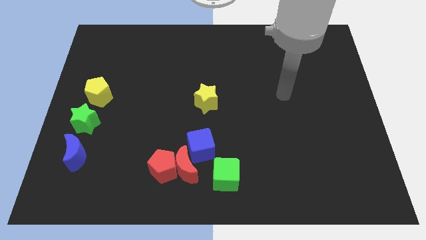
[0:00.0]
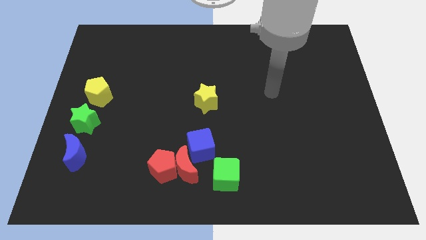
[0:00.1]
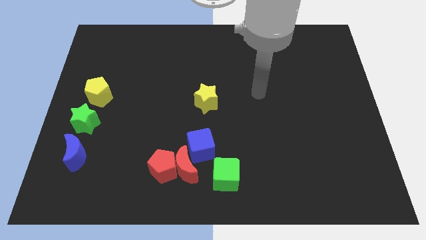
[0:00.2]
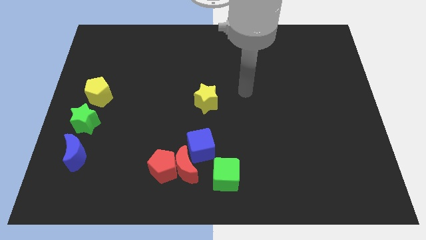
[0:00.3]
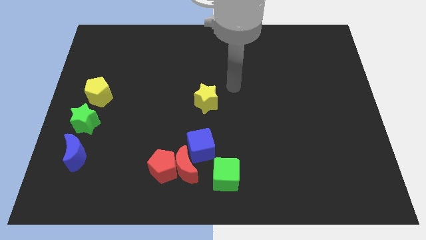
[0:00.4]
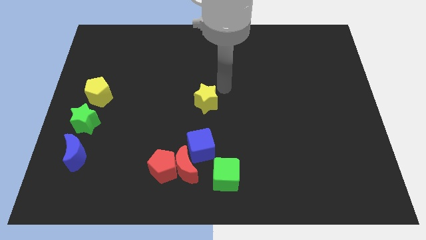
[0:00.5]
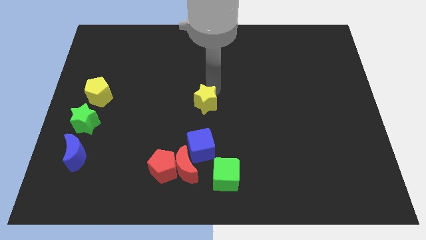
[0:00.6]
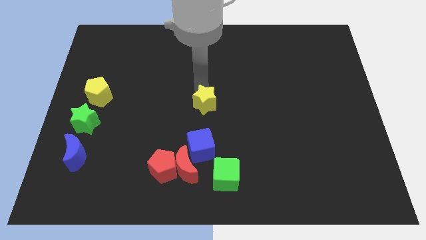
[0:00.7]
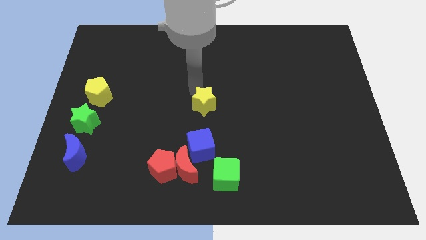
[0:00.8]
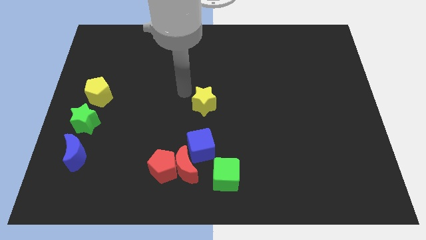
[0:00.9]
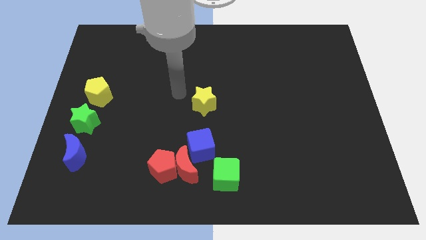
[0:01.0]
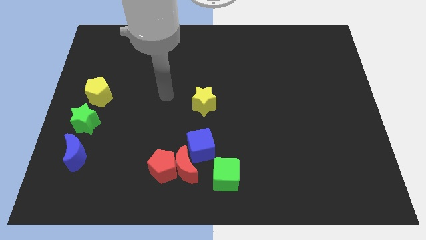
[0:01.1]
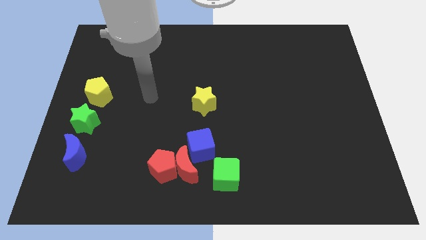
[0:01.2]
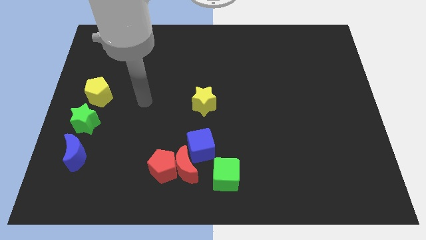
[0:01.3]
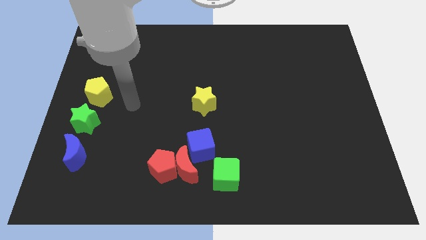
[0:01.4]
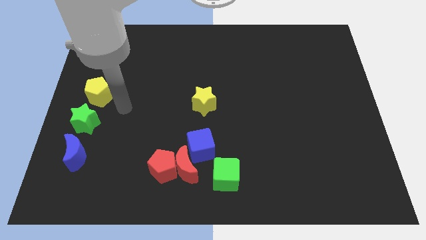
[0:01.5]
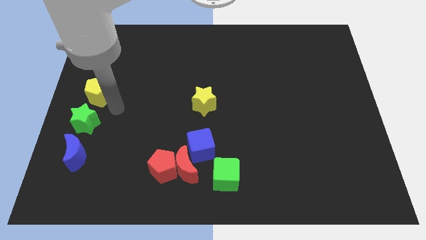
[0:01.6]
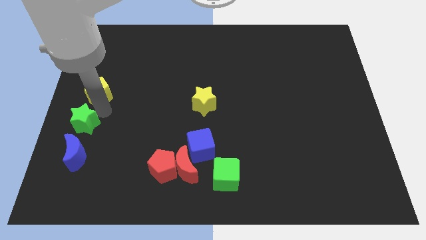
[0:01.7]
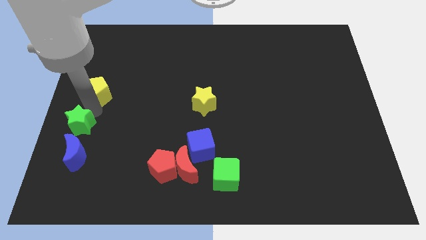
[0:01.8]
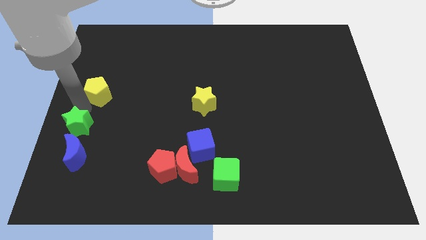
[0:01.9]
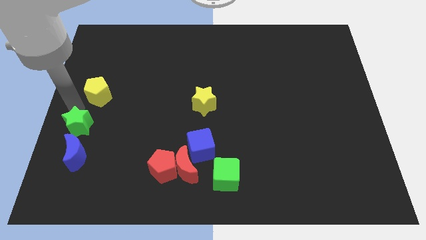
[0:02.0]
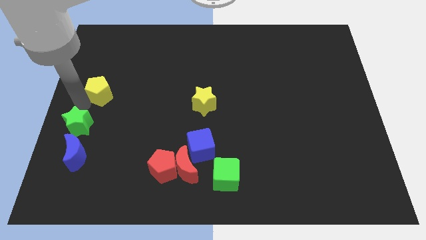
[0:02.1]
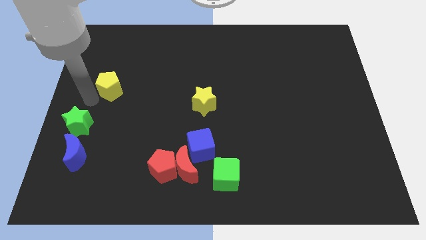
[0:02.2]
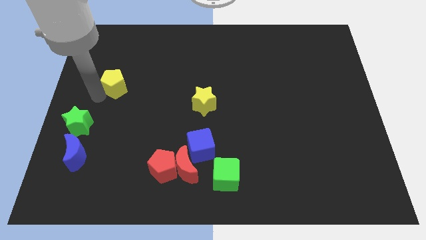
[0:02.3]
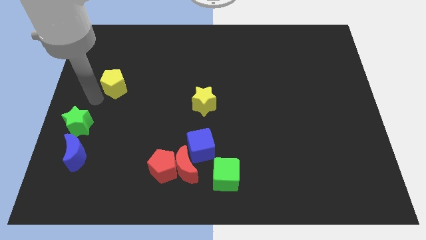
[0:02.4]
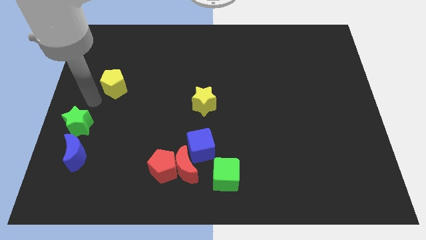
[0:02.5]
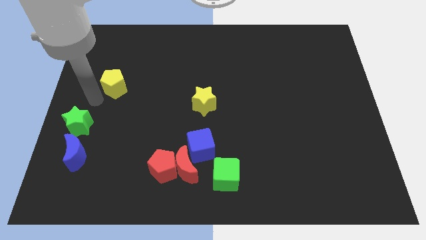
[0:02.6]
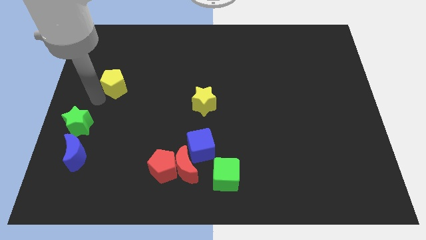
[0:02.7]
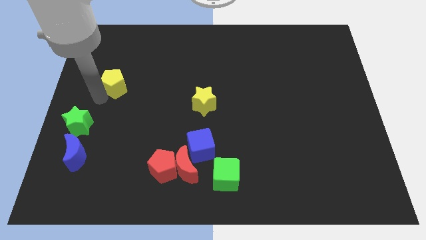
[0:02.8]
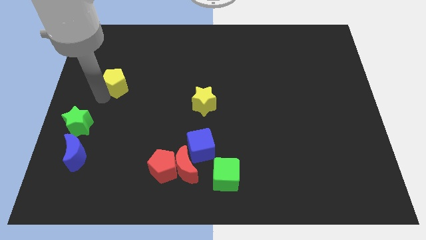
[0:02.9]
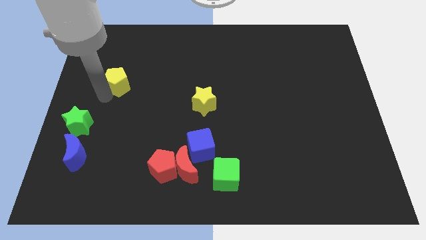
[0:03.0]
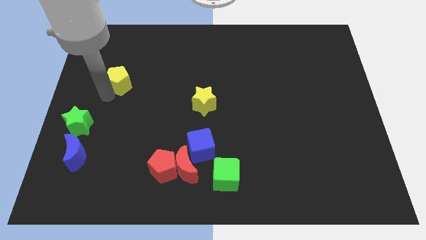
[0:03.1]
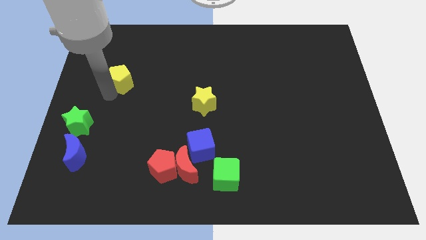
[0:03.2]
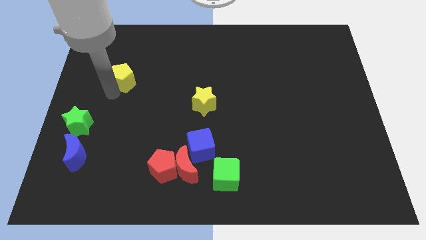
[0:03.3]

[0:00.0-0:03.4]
move the yellow pentagon a bit up and right

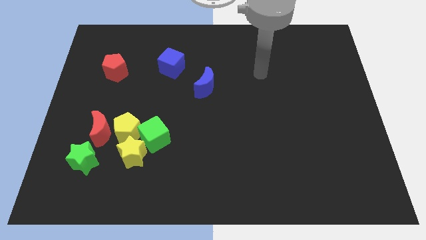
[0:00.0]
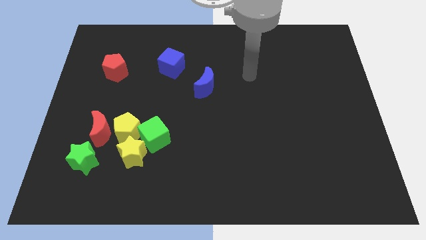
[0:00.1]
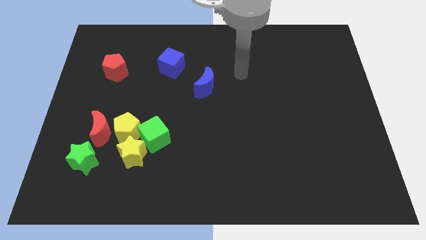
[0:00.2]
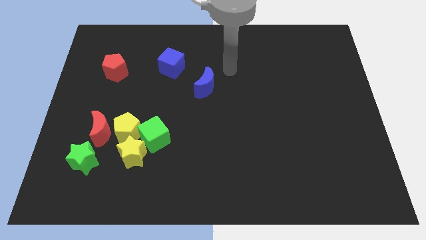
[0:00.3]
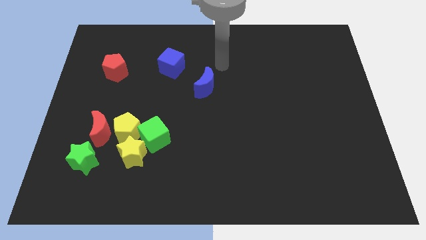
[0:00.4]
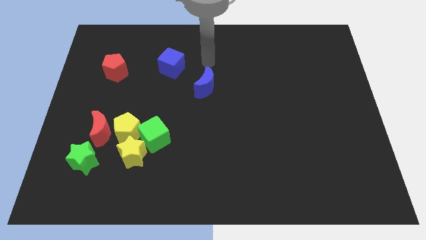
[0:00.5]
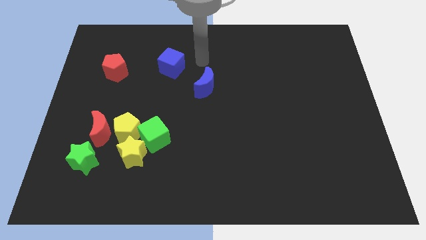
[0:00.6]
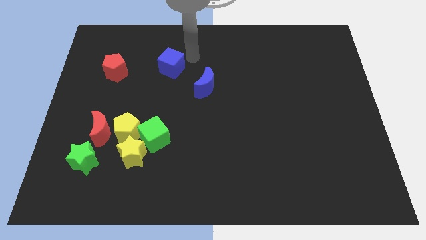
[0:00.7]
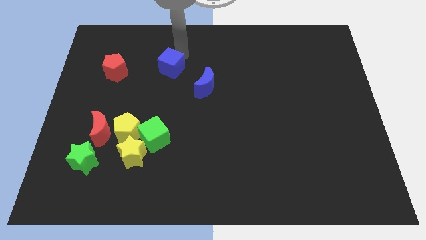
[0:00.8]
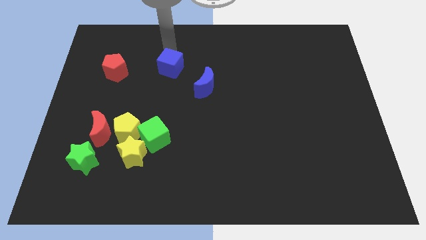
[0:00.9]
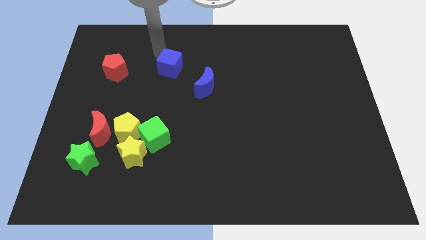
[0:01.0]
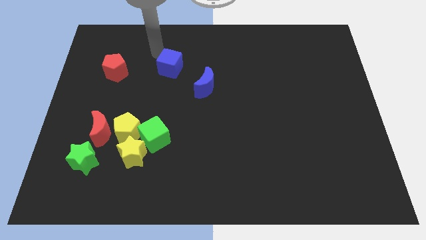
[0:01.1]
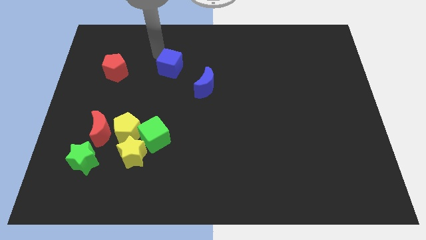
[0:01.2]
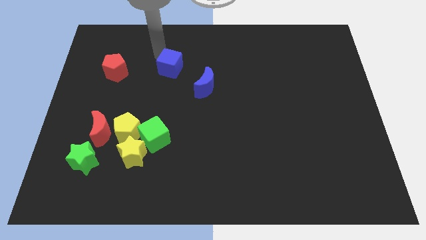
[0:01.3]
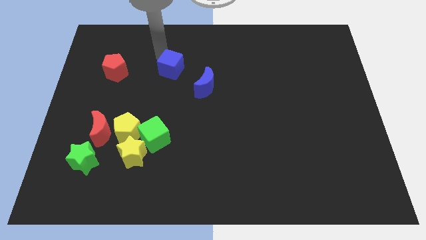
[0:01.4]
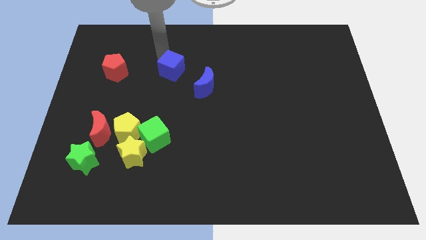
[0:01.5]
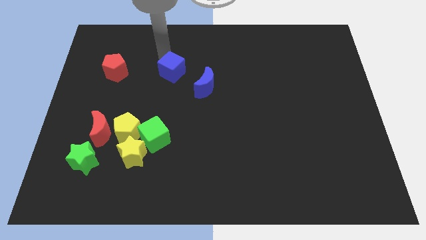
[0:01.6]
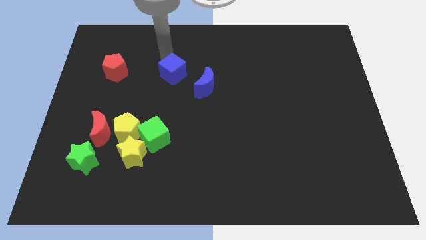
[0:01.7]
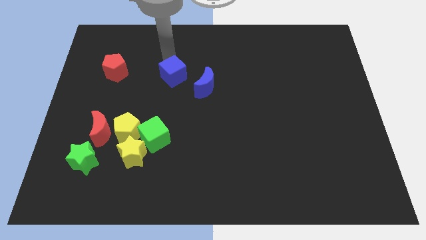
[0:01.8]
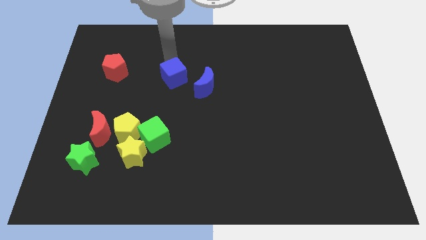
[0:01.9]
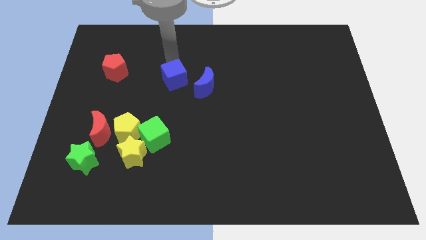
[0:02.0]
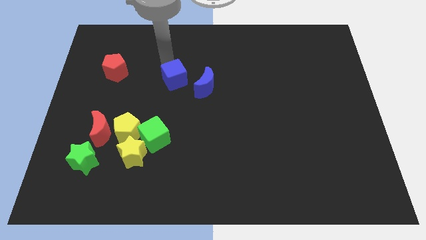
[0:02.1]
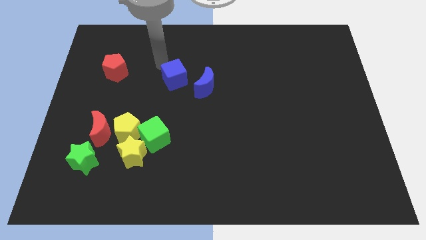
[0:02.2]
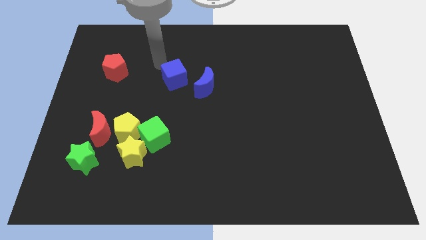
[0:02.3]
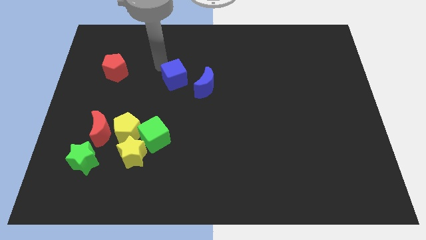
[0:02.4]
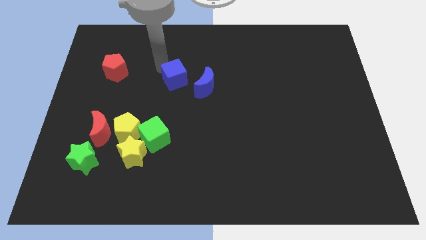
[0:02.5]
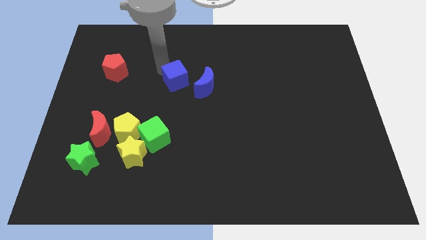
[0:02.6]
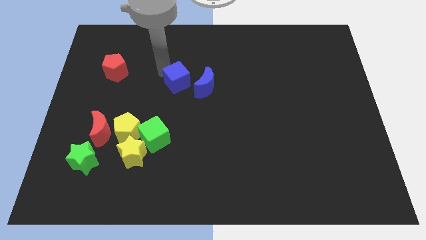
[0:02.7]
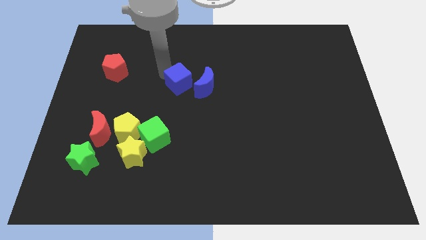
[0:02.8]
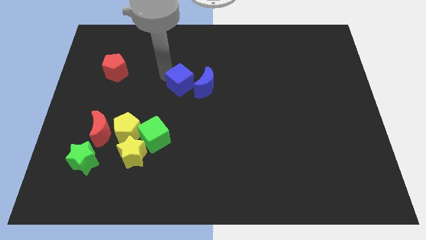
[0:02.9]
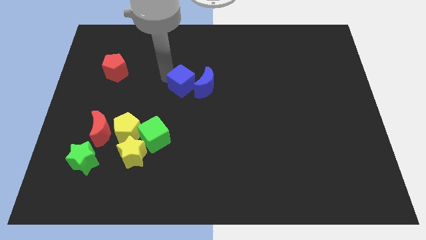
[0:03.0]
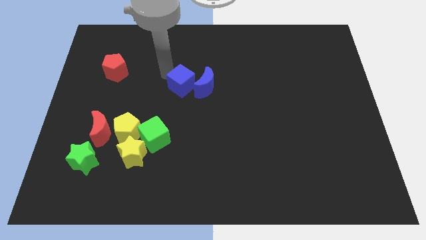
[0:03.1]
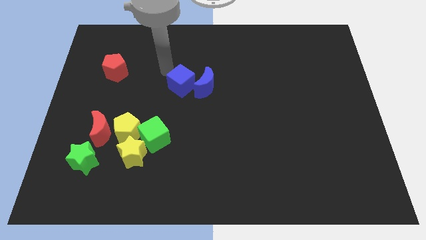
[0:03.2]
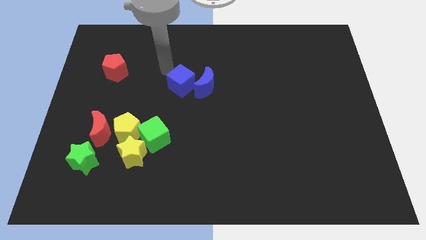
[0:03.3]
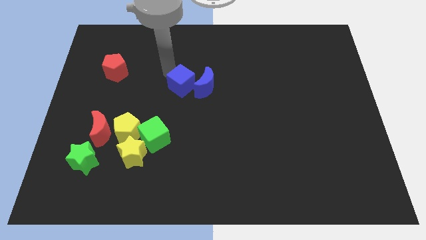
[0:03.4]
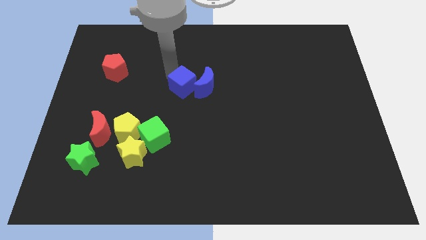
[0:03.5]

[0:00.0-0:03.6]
push the blue cube slightly diagonally downwards and to the right

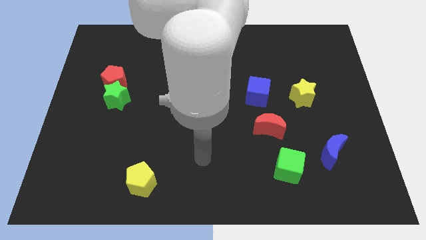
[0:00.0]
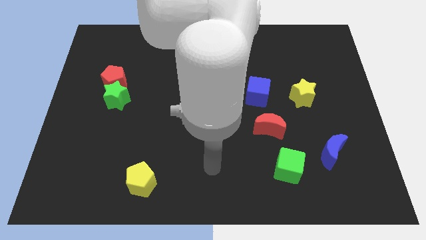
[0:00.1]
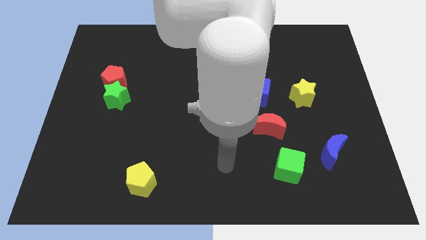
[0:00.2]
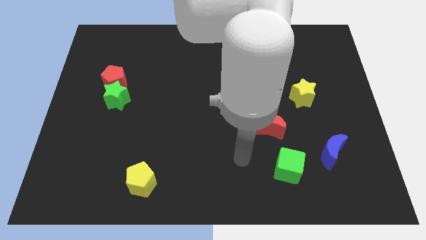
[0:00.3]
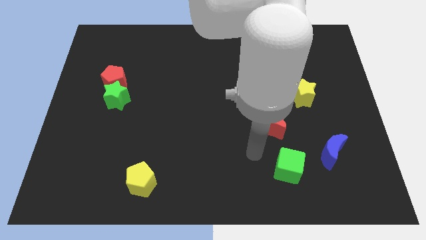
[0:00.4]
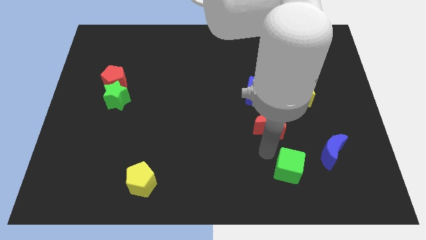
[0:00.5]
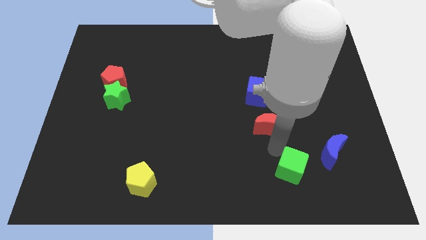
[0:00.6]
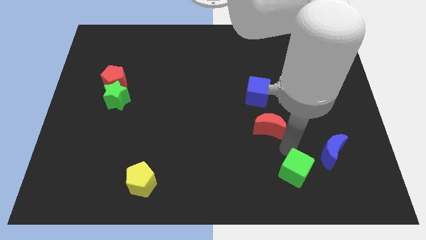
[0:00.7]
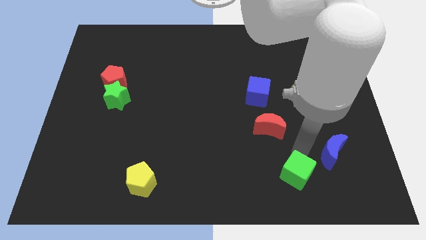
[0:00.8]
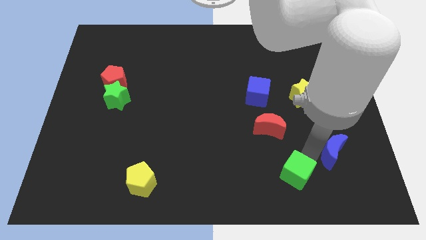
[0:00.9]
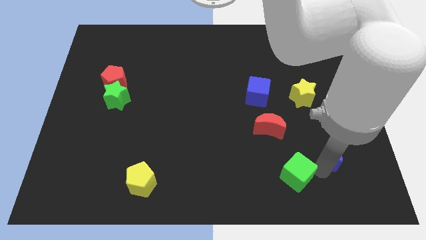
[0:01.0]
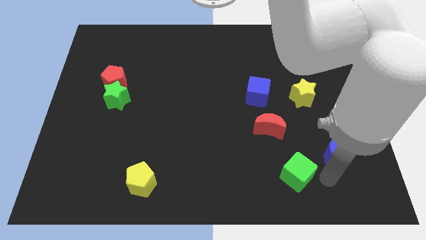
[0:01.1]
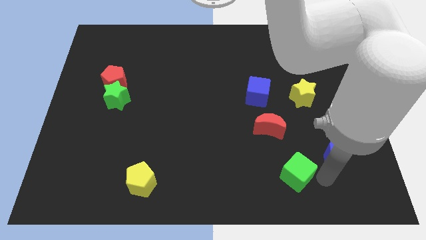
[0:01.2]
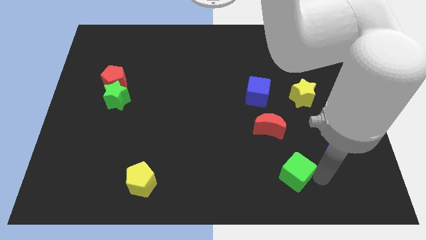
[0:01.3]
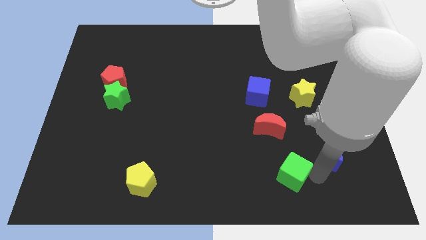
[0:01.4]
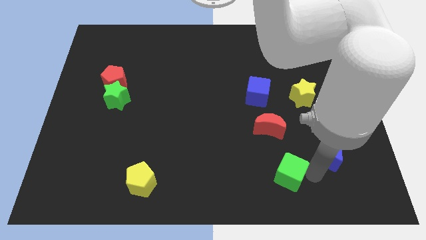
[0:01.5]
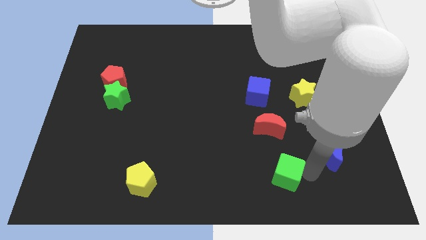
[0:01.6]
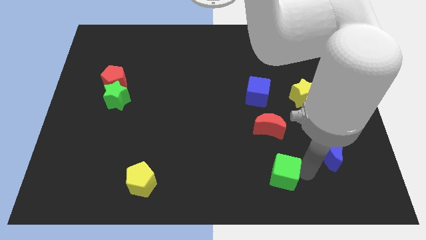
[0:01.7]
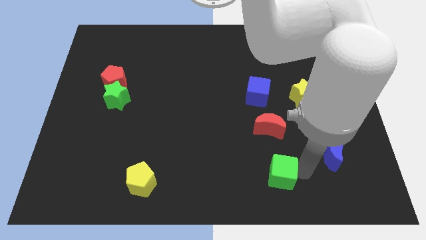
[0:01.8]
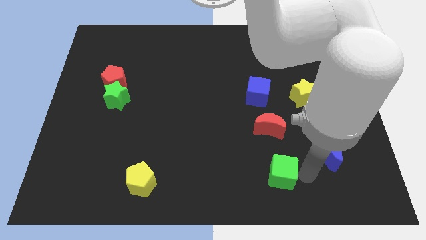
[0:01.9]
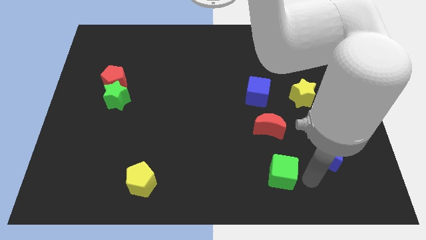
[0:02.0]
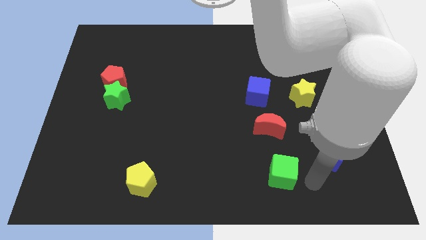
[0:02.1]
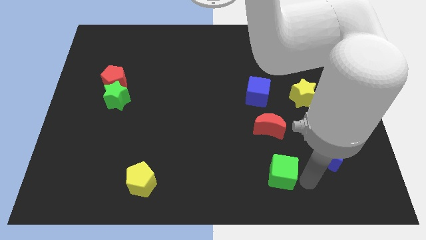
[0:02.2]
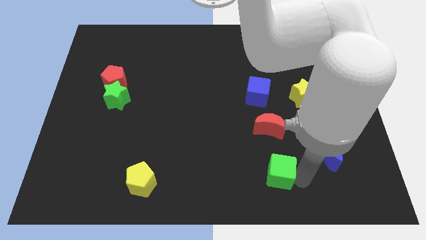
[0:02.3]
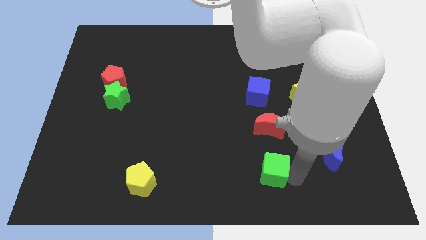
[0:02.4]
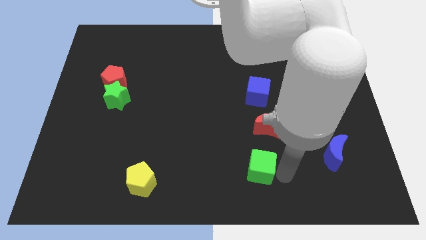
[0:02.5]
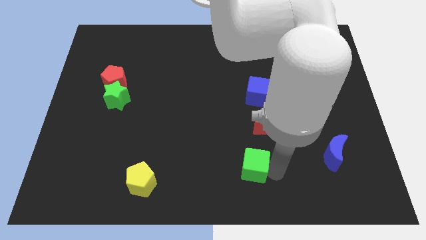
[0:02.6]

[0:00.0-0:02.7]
slightly push the green cube to the left
